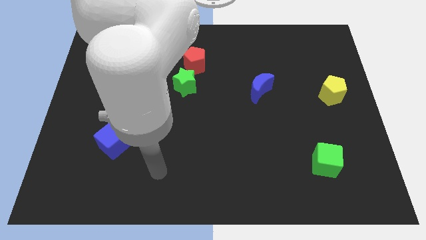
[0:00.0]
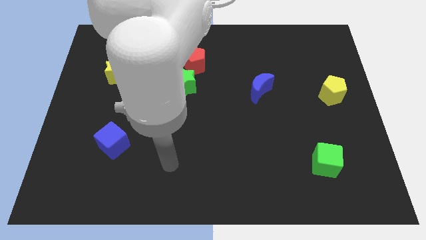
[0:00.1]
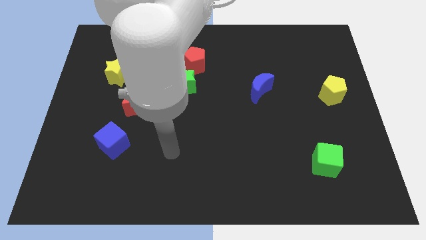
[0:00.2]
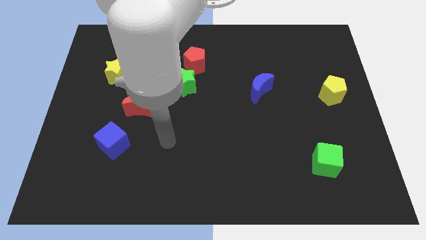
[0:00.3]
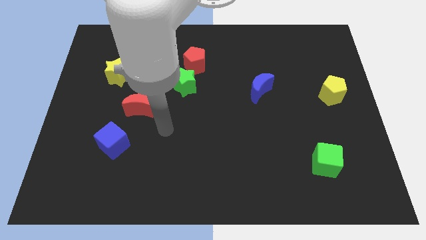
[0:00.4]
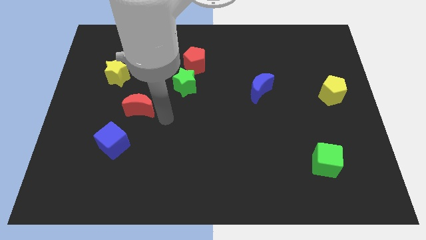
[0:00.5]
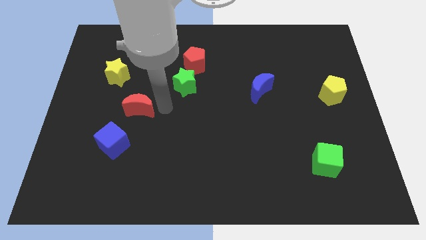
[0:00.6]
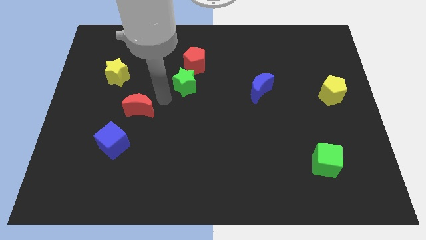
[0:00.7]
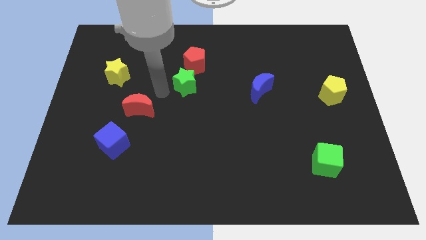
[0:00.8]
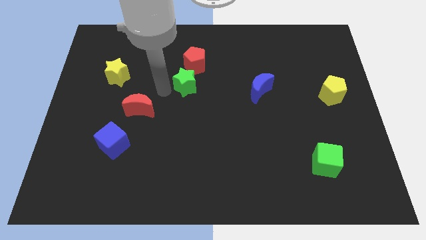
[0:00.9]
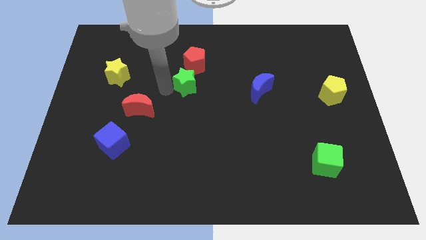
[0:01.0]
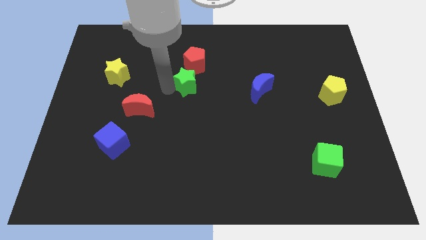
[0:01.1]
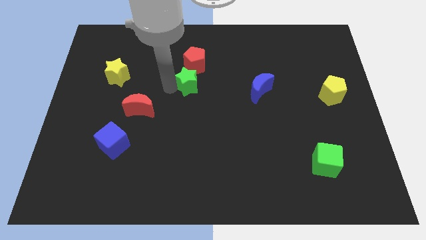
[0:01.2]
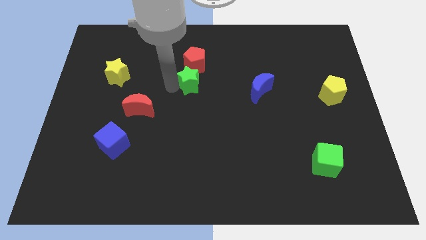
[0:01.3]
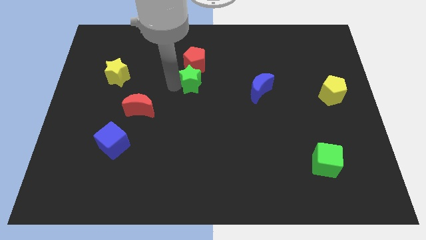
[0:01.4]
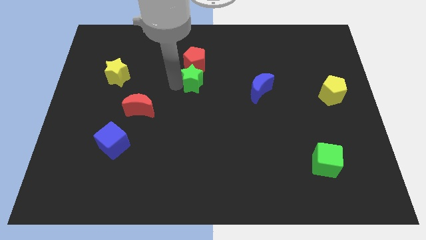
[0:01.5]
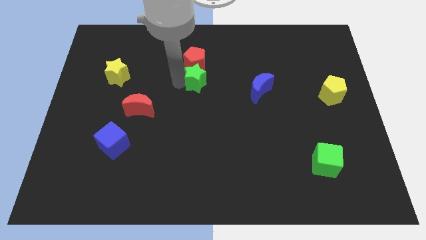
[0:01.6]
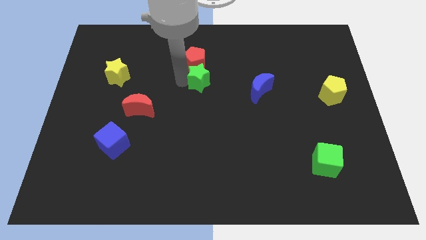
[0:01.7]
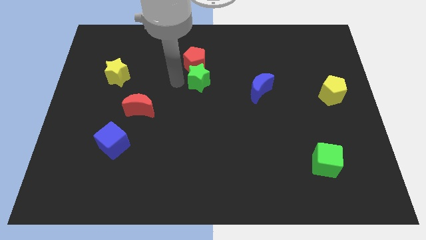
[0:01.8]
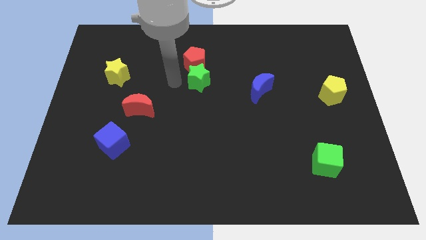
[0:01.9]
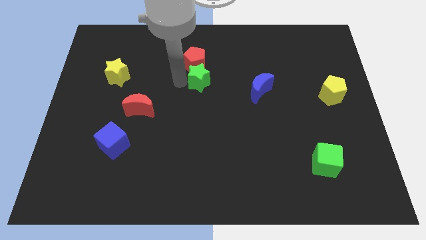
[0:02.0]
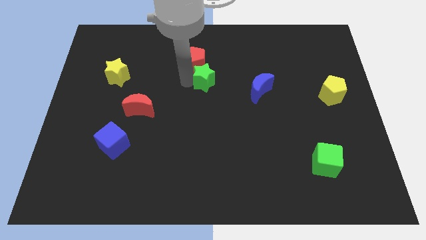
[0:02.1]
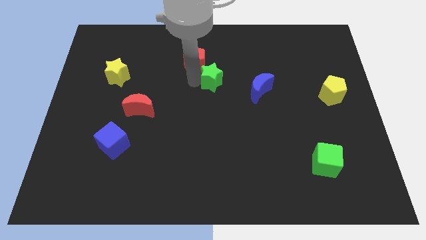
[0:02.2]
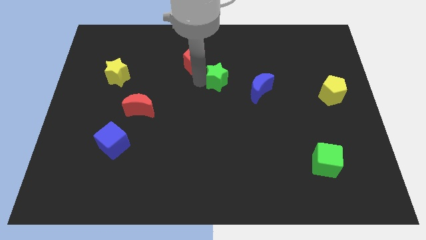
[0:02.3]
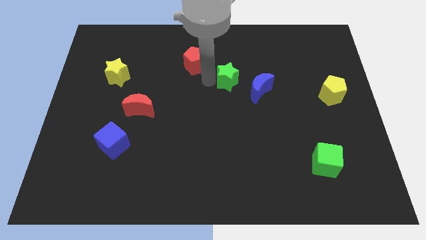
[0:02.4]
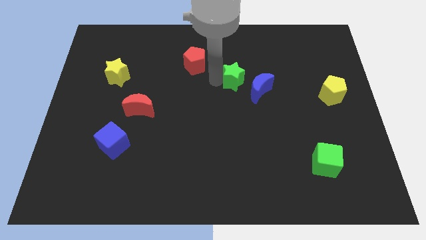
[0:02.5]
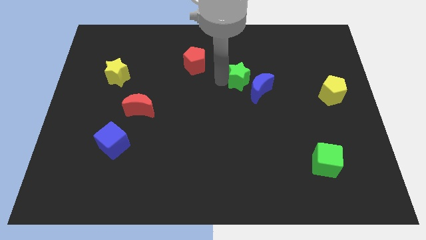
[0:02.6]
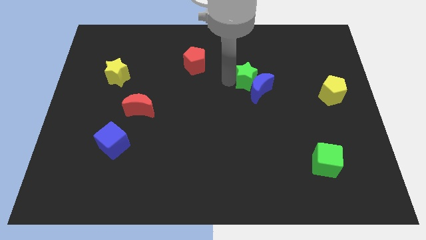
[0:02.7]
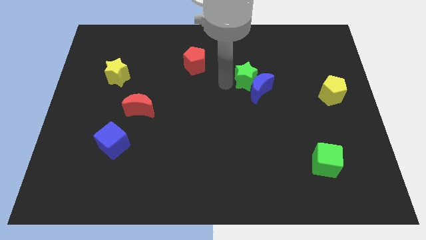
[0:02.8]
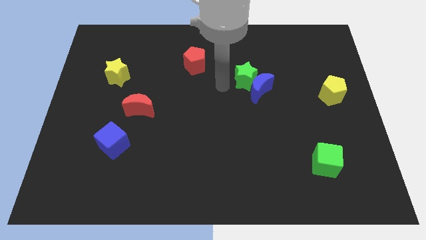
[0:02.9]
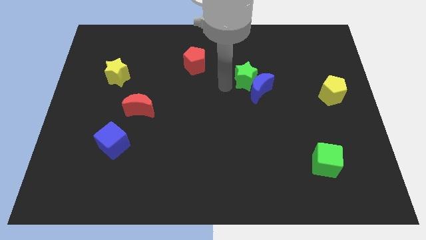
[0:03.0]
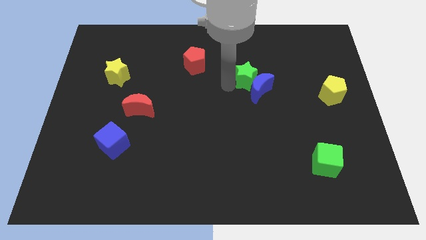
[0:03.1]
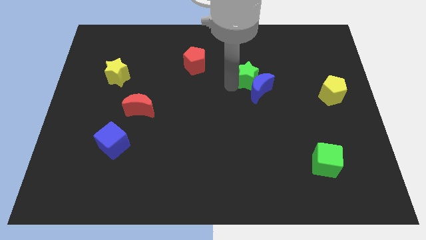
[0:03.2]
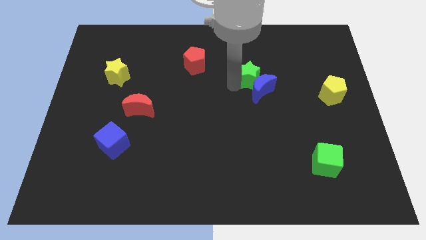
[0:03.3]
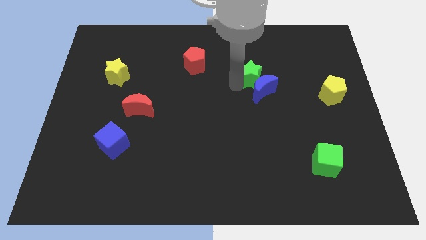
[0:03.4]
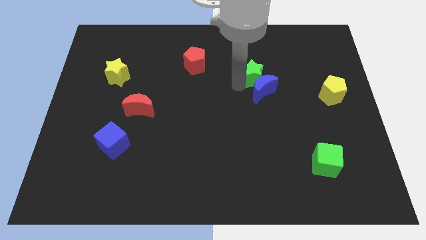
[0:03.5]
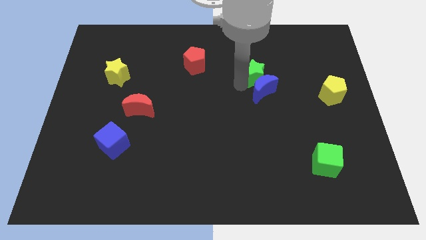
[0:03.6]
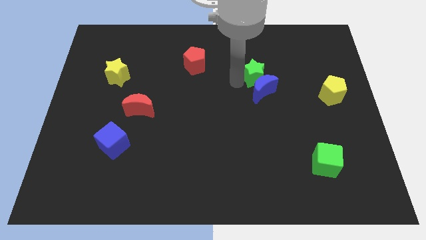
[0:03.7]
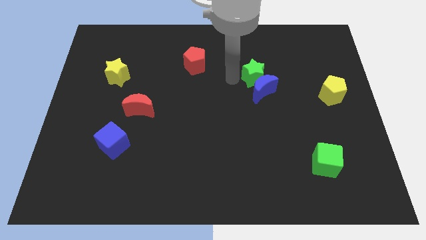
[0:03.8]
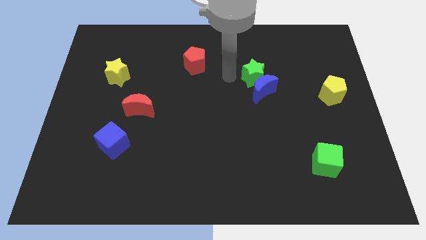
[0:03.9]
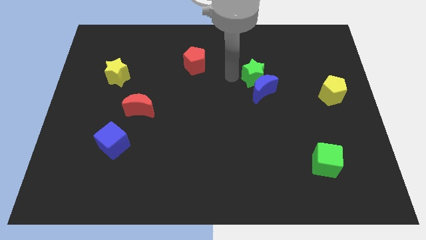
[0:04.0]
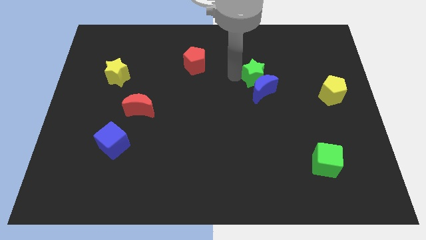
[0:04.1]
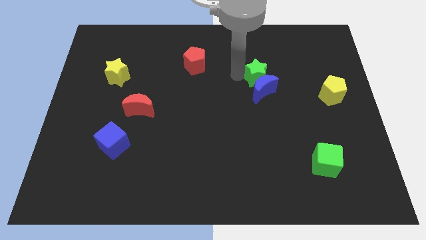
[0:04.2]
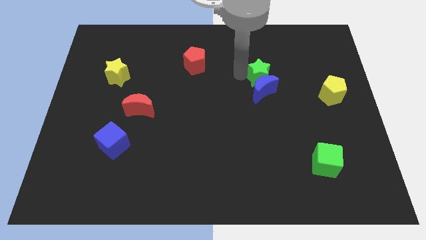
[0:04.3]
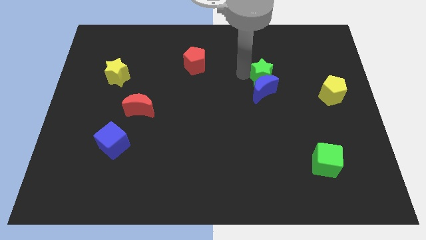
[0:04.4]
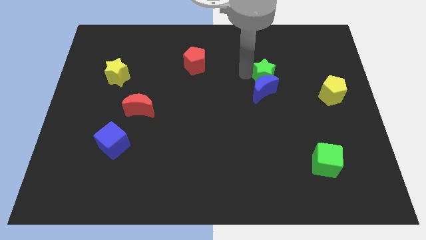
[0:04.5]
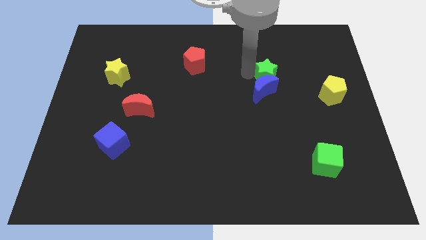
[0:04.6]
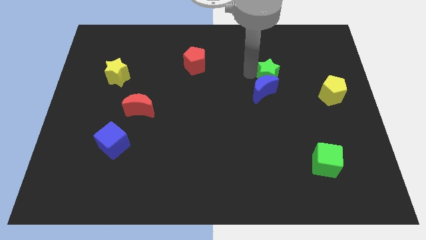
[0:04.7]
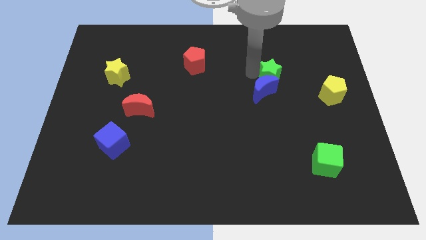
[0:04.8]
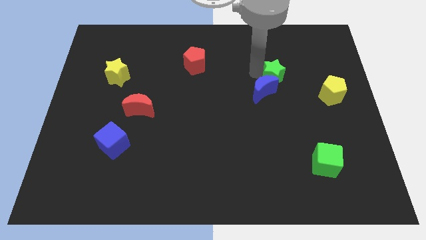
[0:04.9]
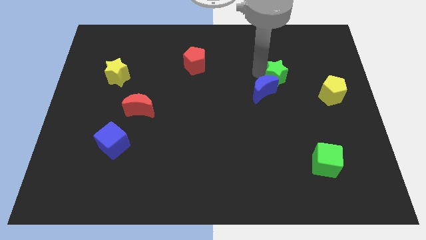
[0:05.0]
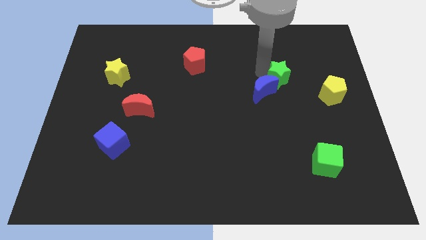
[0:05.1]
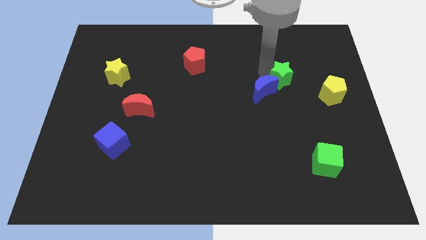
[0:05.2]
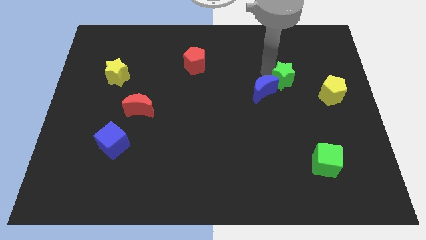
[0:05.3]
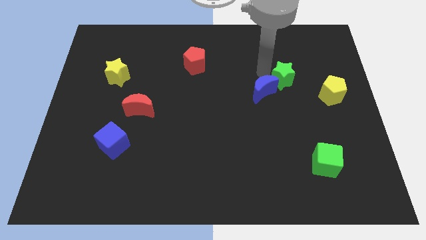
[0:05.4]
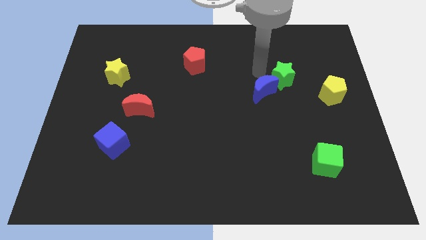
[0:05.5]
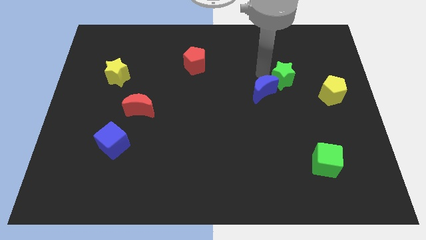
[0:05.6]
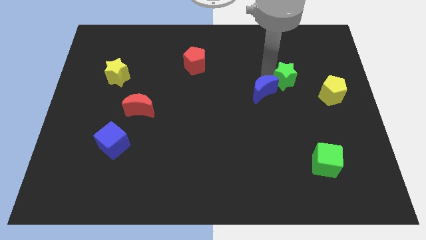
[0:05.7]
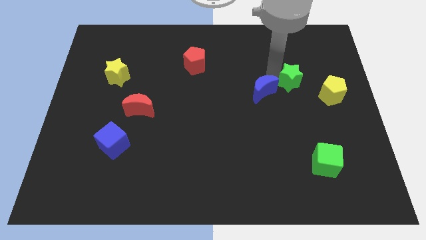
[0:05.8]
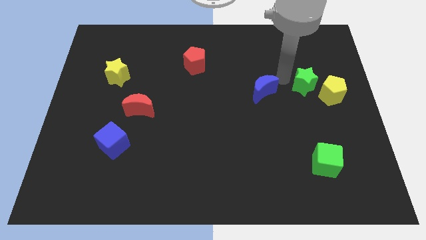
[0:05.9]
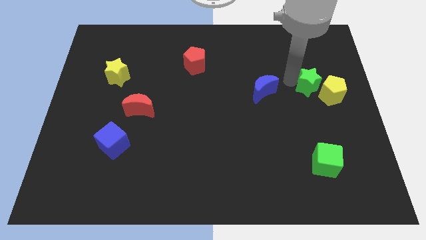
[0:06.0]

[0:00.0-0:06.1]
move the green star next to the yellow pentagon

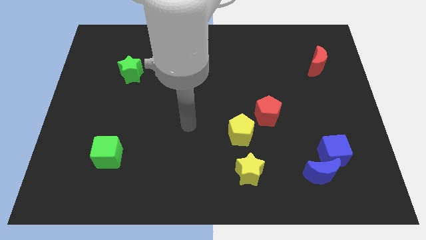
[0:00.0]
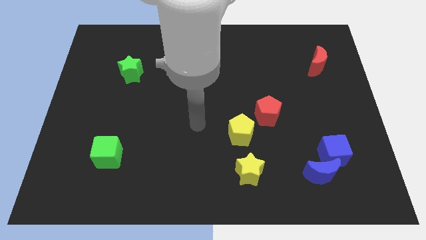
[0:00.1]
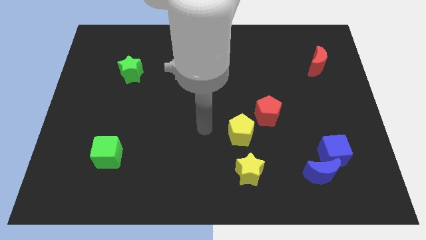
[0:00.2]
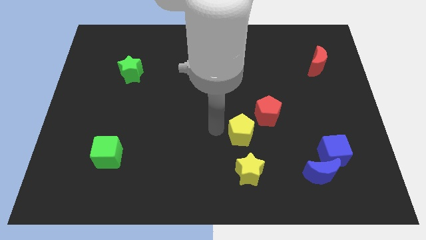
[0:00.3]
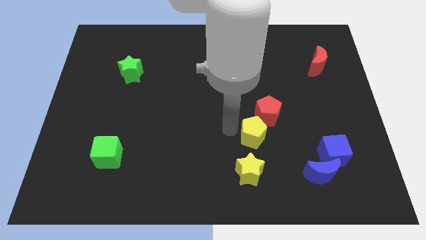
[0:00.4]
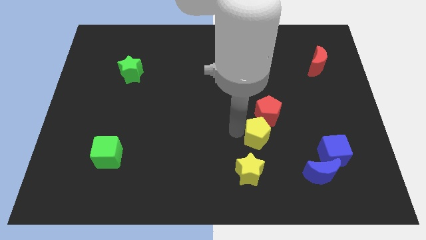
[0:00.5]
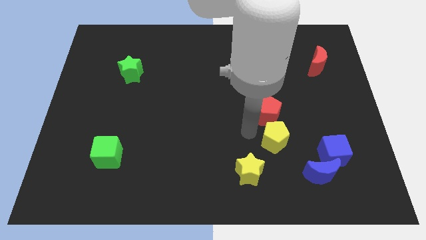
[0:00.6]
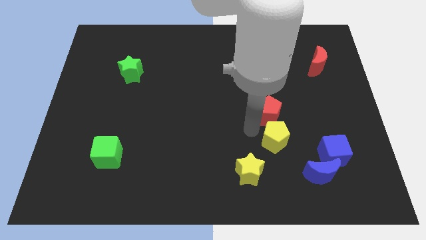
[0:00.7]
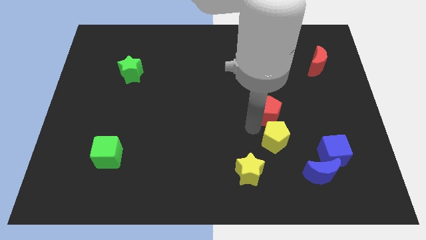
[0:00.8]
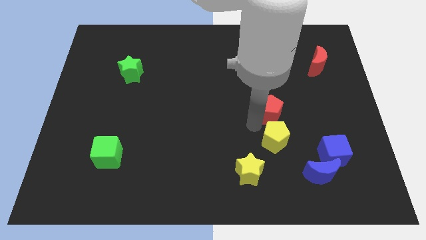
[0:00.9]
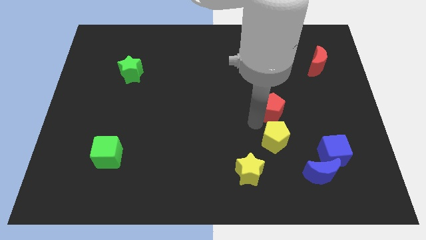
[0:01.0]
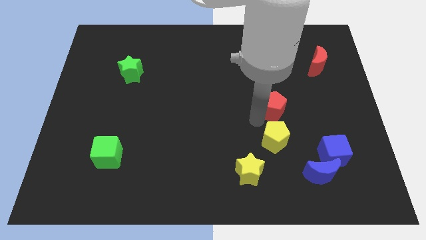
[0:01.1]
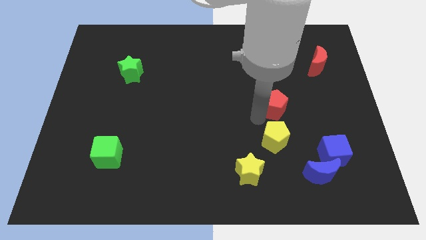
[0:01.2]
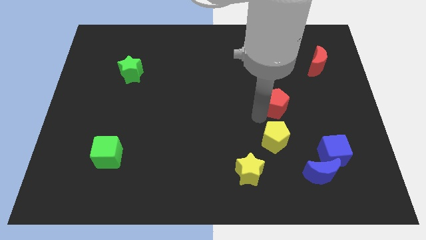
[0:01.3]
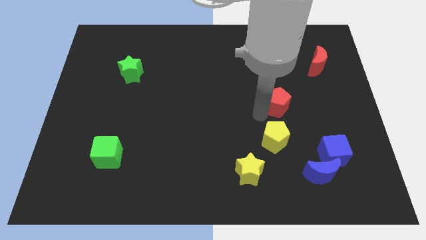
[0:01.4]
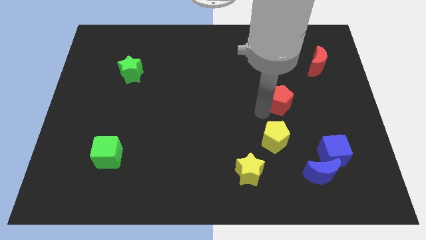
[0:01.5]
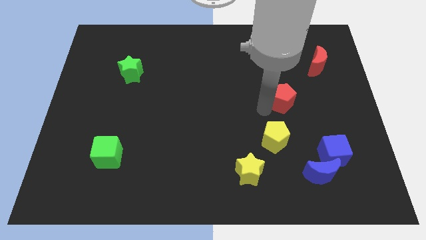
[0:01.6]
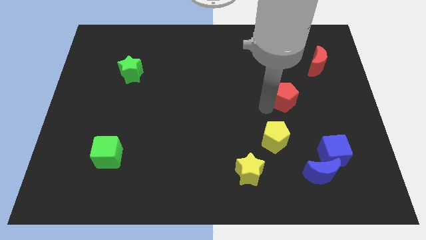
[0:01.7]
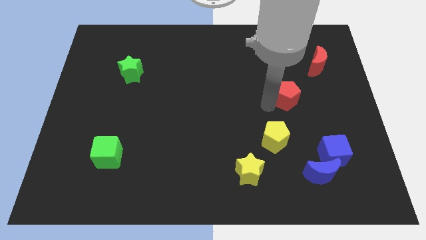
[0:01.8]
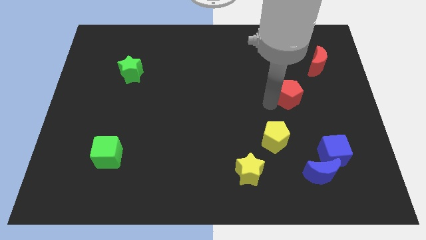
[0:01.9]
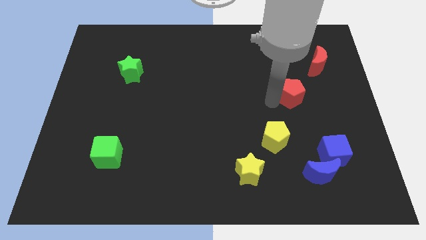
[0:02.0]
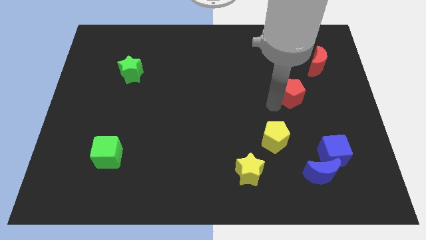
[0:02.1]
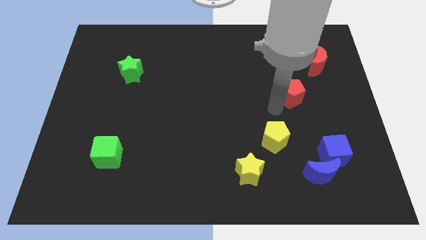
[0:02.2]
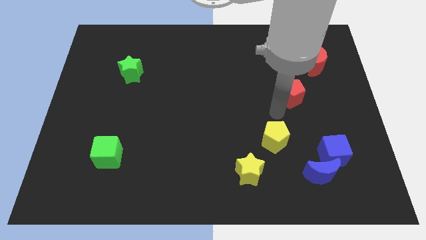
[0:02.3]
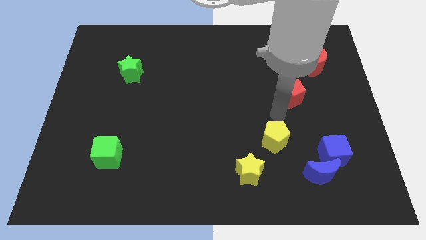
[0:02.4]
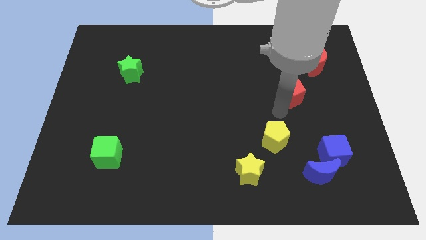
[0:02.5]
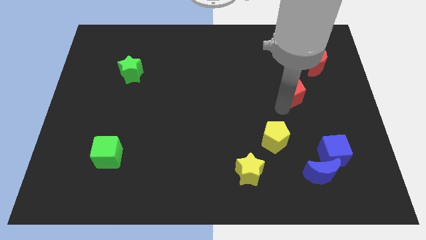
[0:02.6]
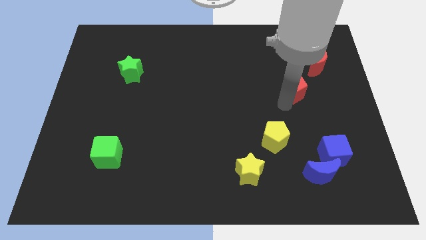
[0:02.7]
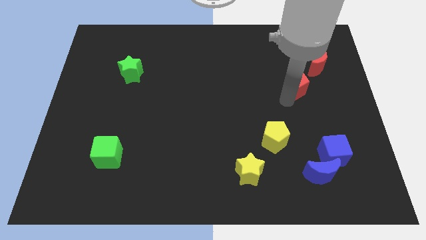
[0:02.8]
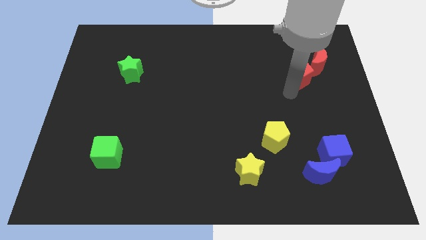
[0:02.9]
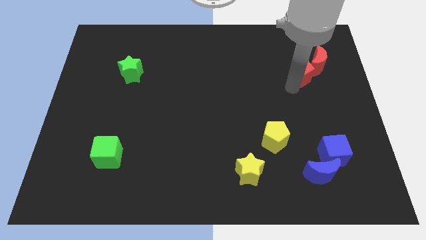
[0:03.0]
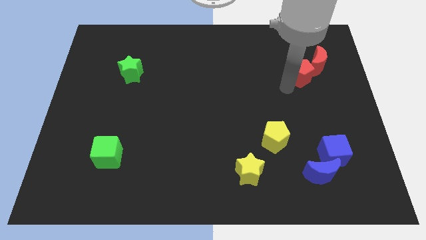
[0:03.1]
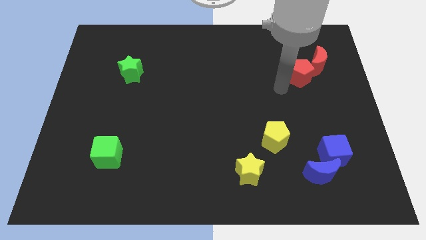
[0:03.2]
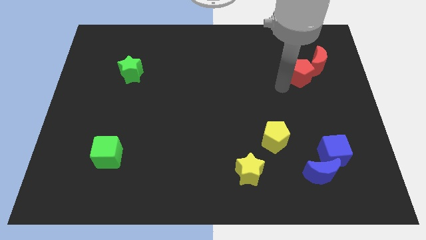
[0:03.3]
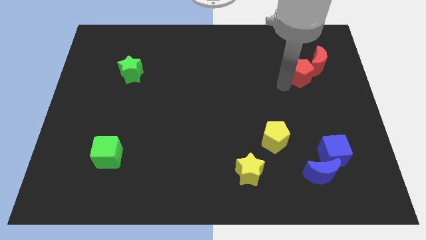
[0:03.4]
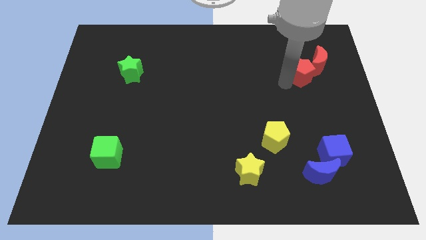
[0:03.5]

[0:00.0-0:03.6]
slide the red pentagon to the red moon
